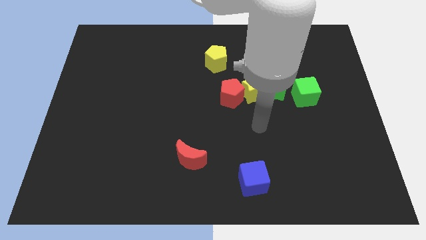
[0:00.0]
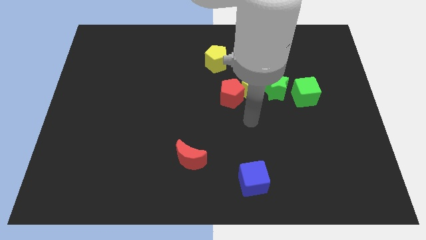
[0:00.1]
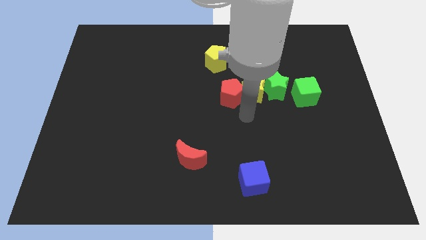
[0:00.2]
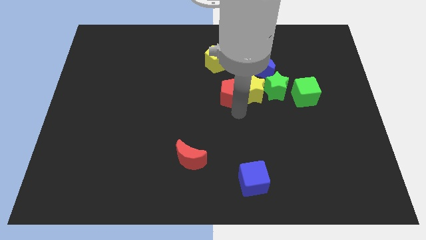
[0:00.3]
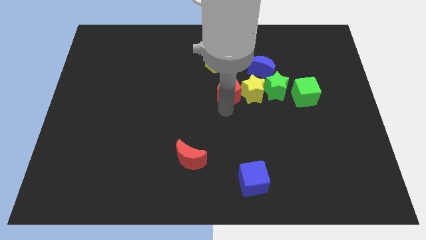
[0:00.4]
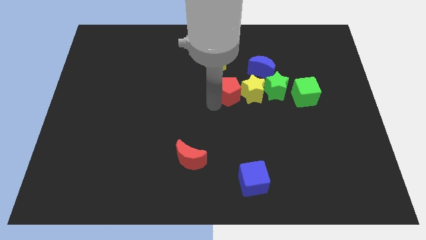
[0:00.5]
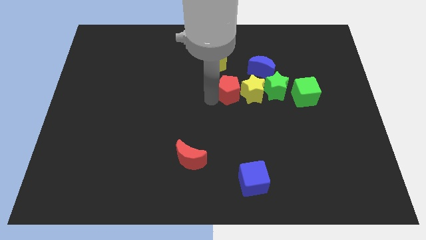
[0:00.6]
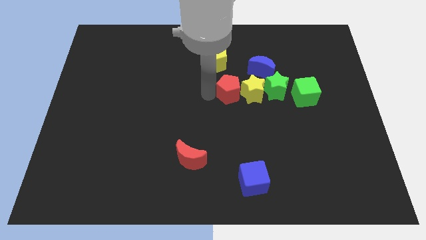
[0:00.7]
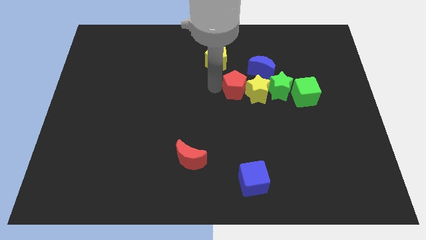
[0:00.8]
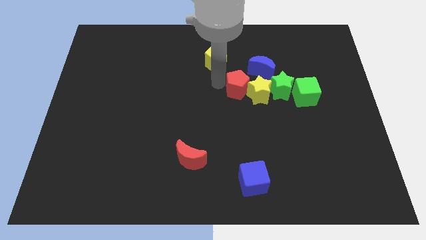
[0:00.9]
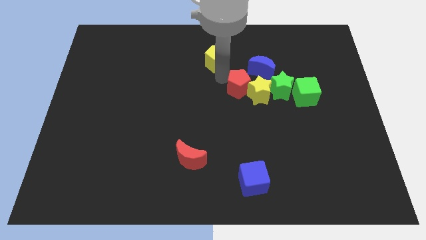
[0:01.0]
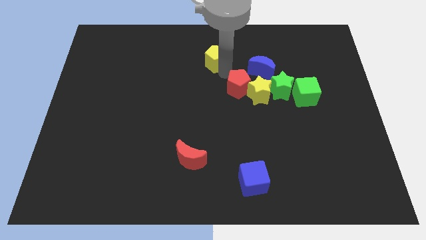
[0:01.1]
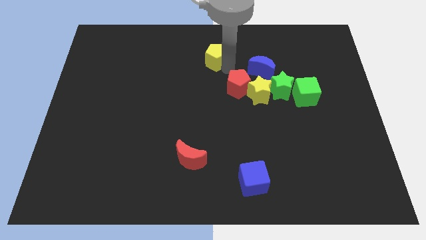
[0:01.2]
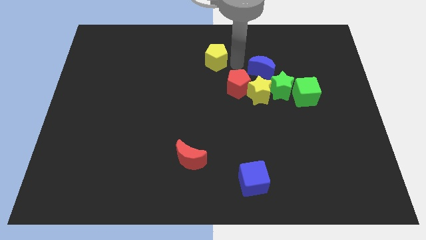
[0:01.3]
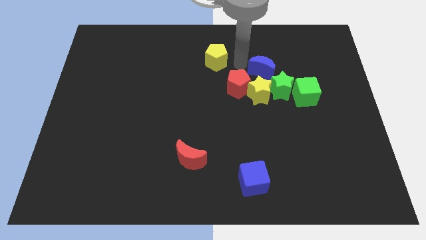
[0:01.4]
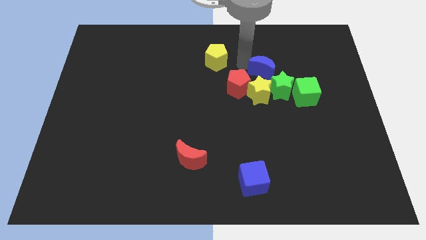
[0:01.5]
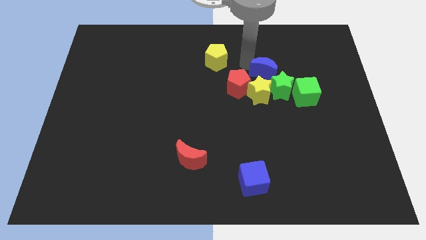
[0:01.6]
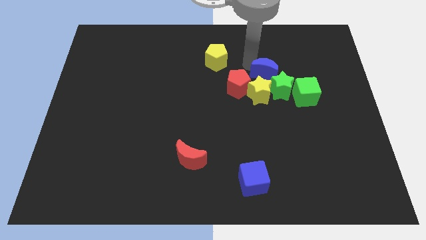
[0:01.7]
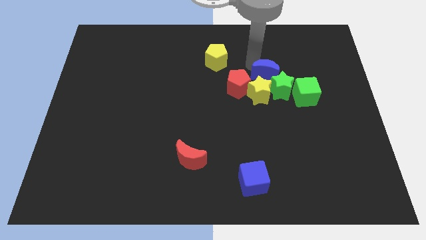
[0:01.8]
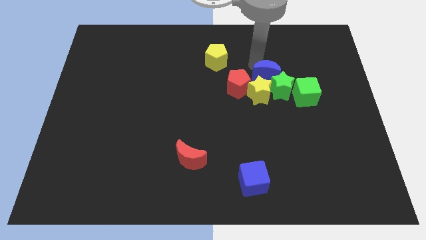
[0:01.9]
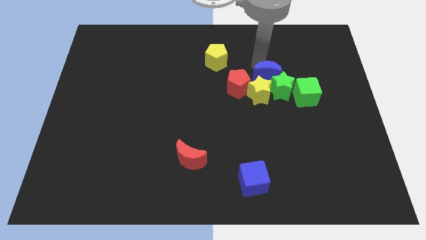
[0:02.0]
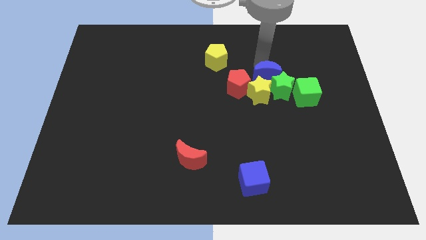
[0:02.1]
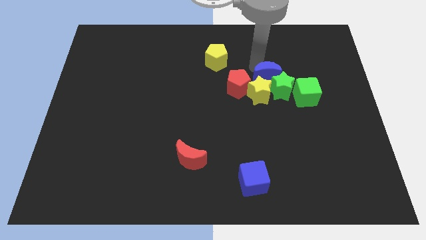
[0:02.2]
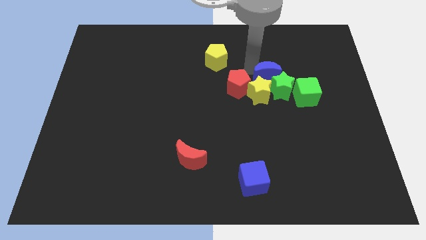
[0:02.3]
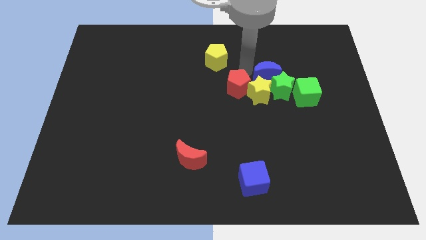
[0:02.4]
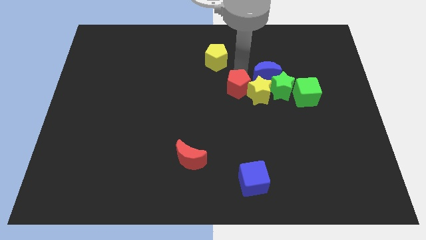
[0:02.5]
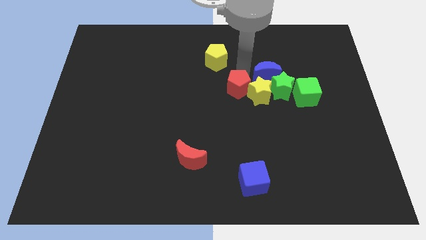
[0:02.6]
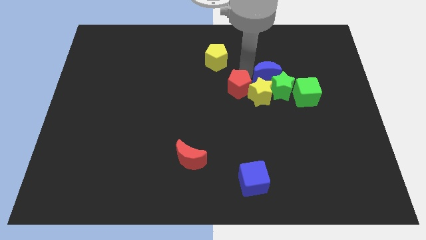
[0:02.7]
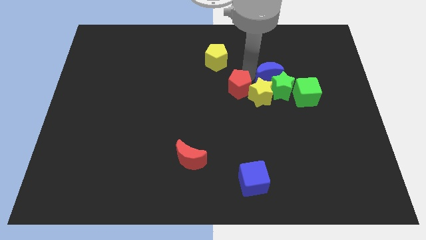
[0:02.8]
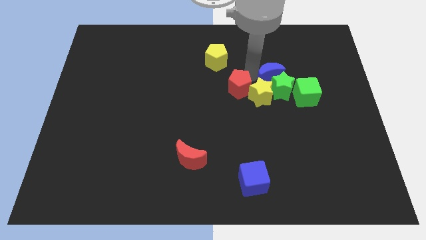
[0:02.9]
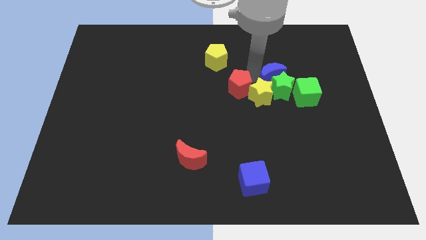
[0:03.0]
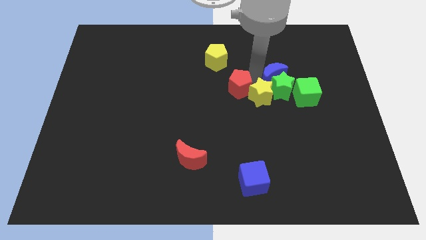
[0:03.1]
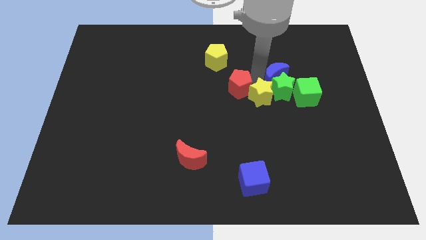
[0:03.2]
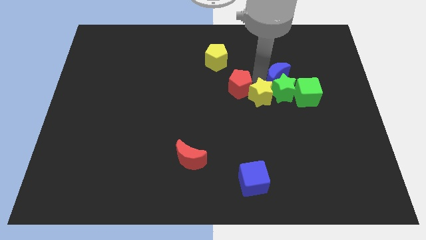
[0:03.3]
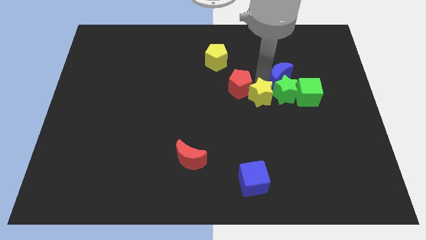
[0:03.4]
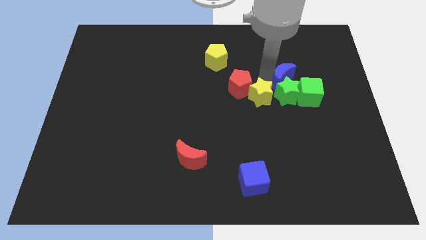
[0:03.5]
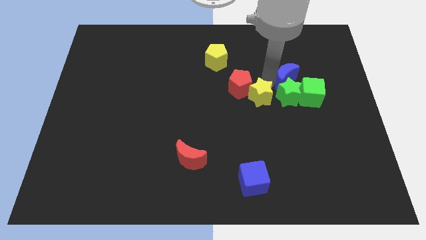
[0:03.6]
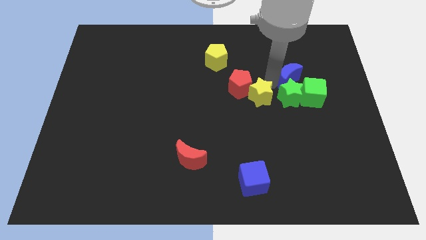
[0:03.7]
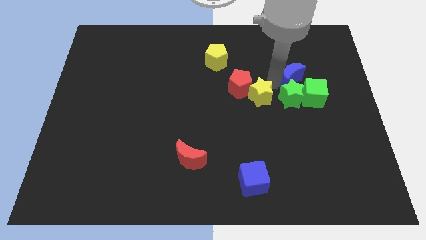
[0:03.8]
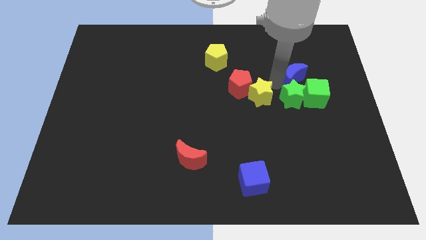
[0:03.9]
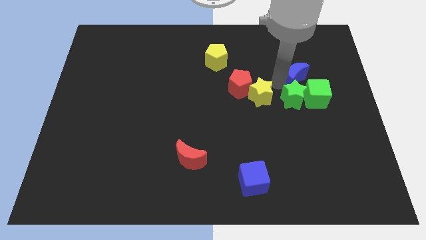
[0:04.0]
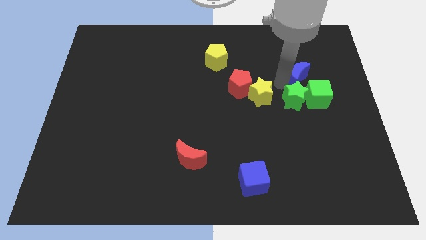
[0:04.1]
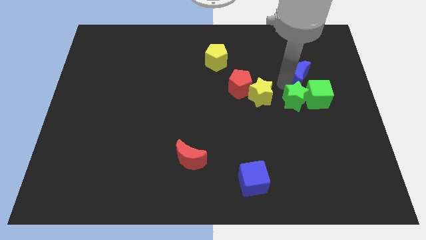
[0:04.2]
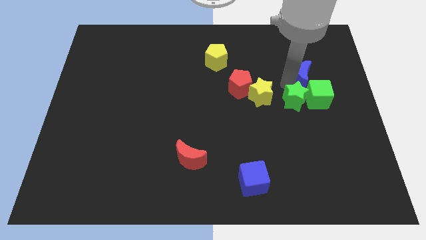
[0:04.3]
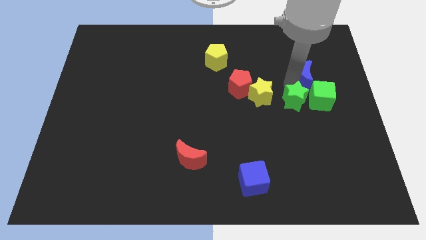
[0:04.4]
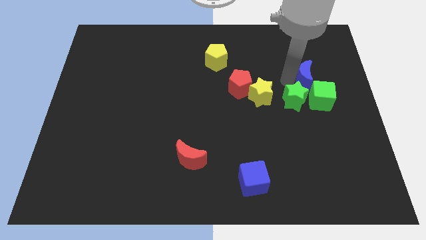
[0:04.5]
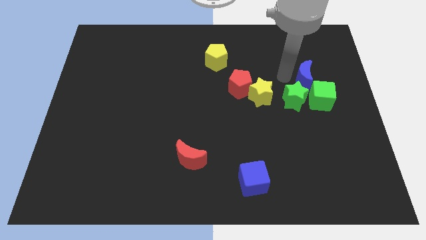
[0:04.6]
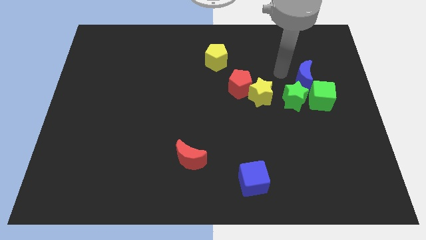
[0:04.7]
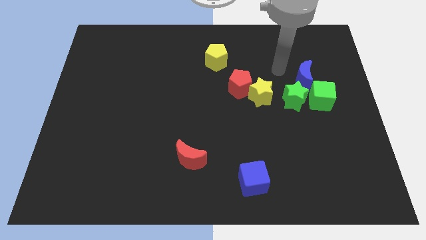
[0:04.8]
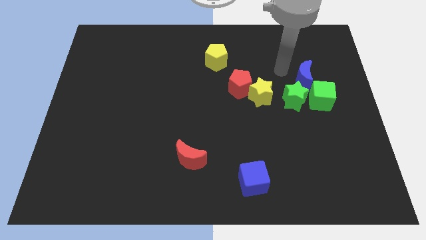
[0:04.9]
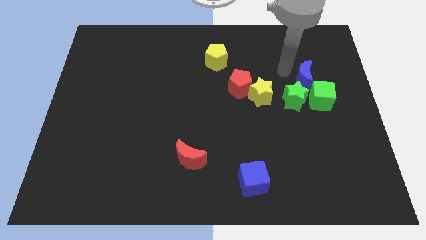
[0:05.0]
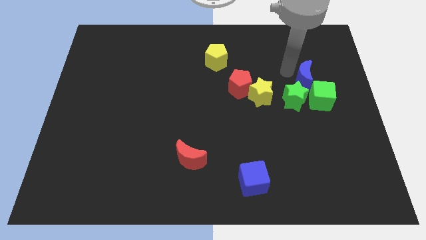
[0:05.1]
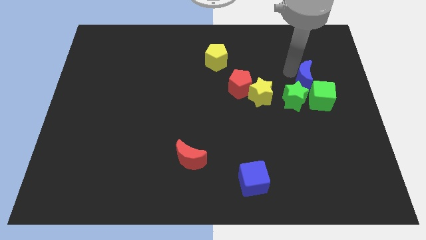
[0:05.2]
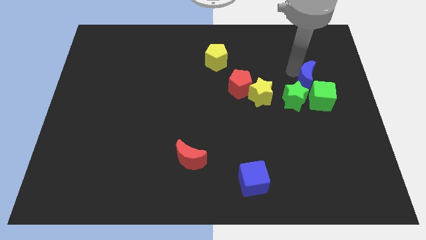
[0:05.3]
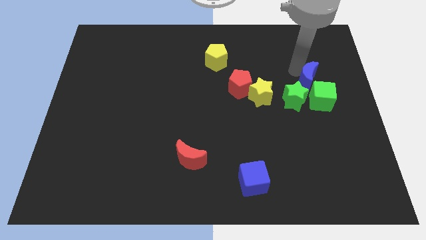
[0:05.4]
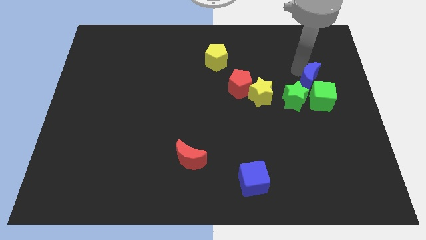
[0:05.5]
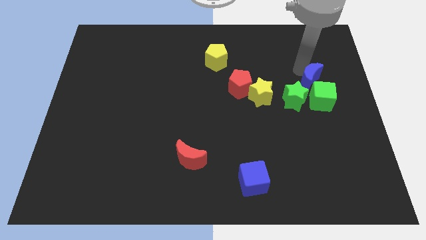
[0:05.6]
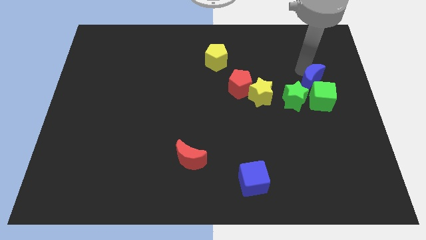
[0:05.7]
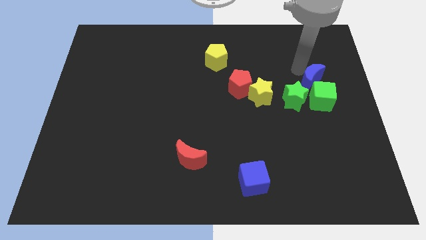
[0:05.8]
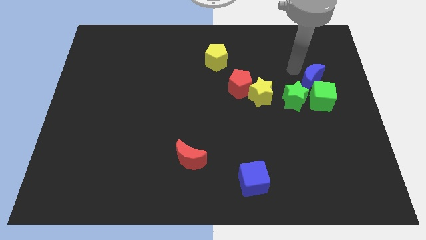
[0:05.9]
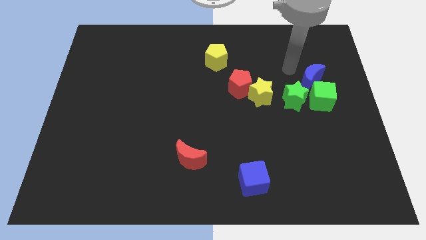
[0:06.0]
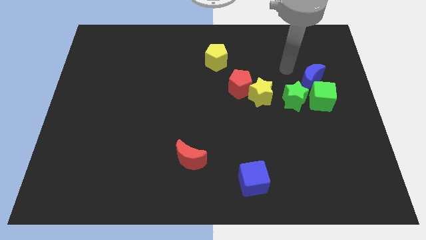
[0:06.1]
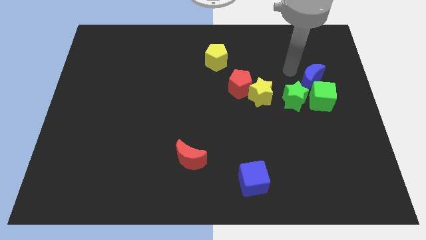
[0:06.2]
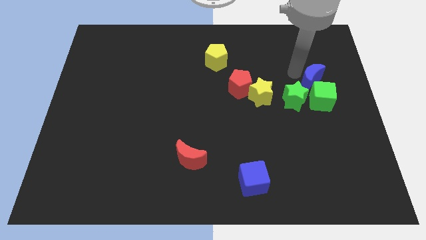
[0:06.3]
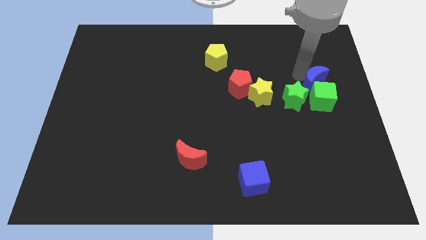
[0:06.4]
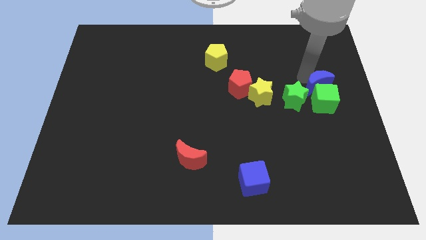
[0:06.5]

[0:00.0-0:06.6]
slide the blue moon to the right side

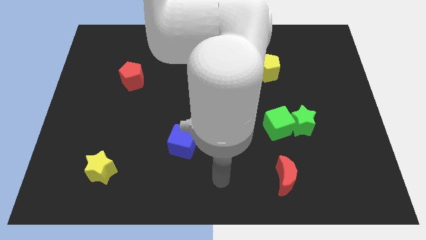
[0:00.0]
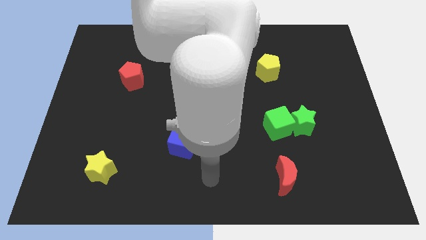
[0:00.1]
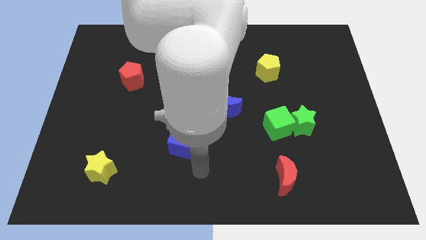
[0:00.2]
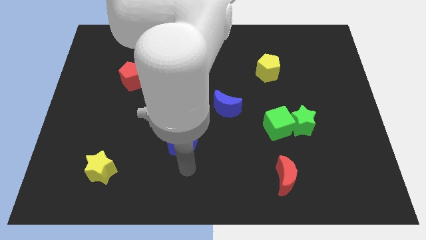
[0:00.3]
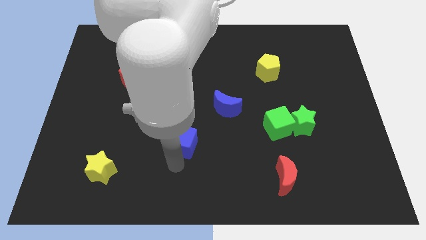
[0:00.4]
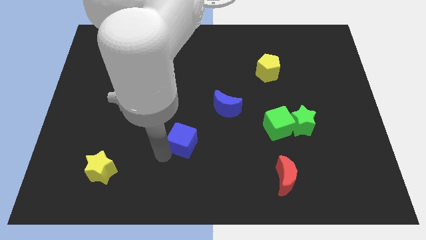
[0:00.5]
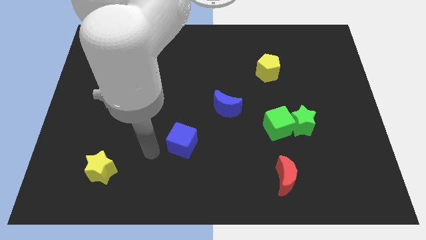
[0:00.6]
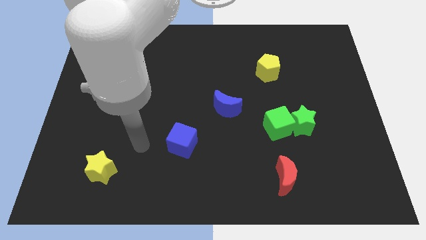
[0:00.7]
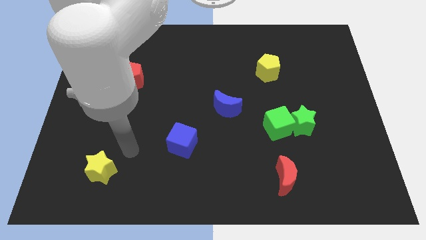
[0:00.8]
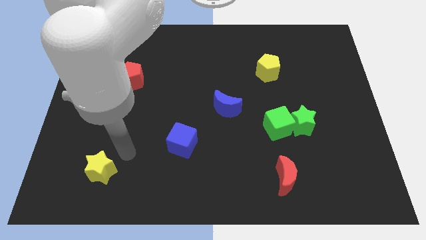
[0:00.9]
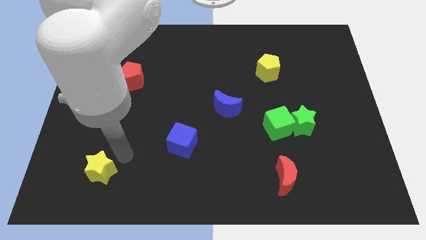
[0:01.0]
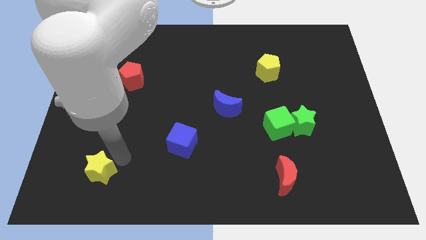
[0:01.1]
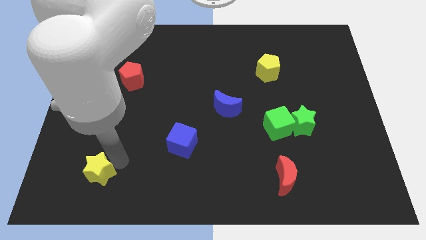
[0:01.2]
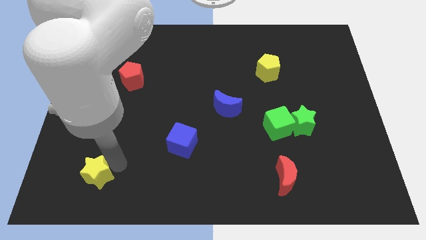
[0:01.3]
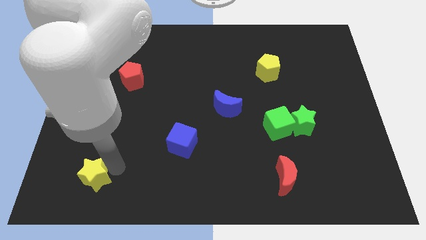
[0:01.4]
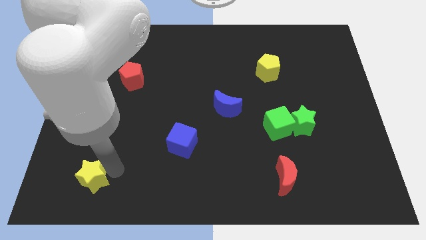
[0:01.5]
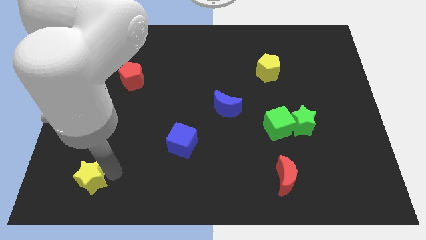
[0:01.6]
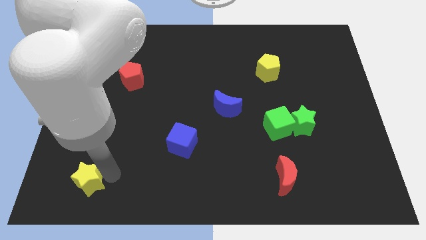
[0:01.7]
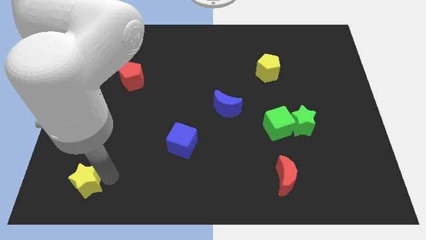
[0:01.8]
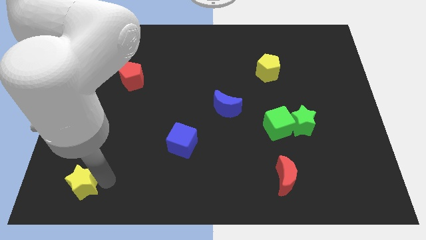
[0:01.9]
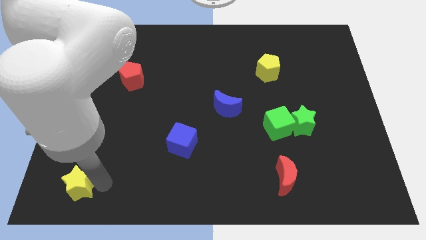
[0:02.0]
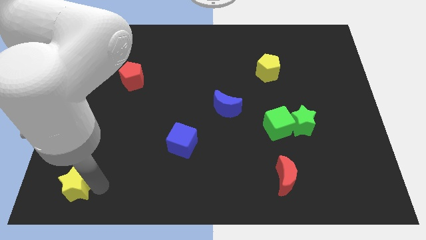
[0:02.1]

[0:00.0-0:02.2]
slide the yellow star to the bottom left of the board
